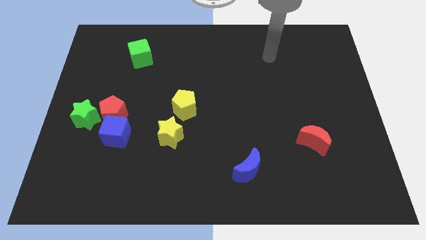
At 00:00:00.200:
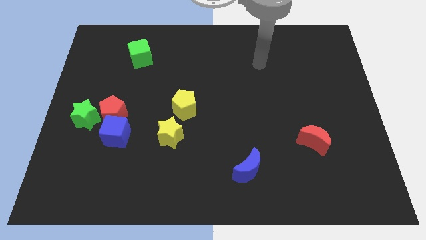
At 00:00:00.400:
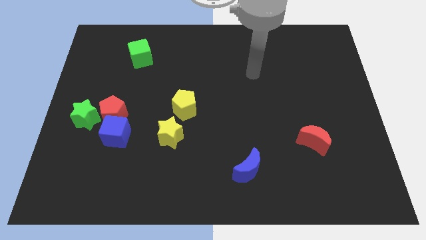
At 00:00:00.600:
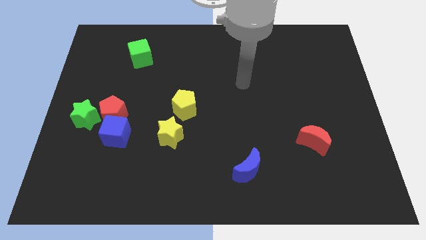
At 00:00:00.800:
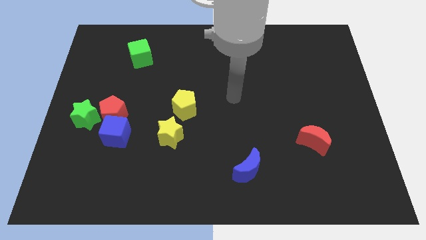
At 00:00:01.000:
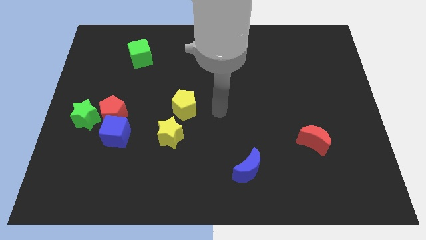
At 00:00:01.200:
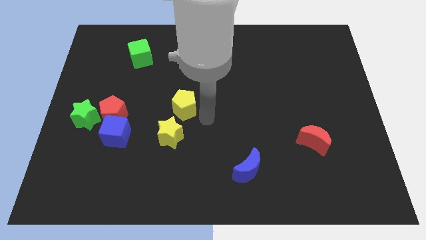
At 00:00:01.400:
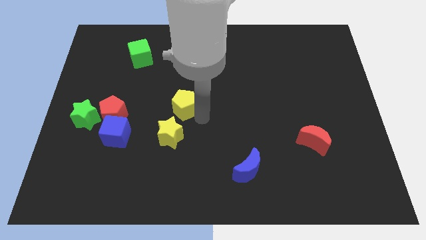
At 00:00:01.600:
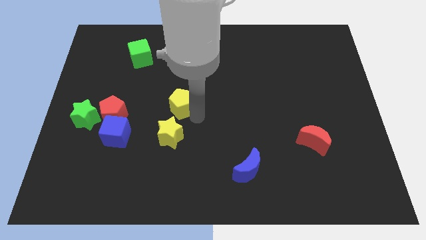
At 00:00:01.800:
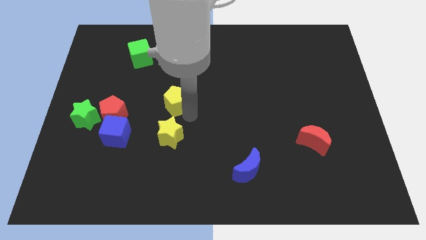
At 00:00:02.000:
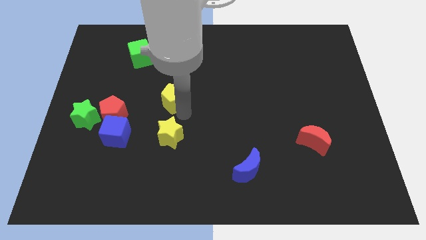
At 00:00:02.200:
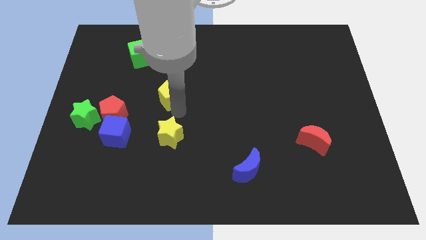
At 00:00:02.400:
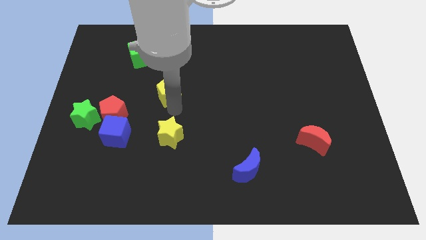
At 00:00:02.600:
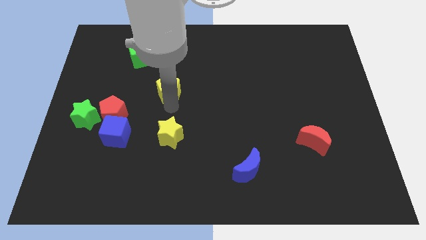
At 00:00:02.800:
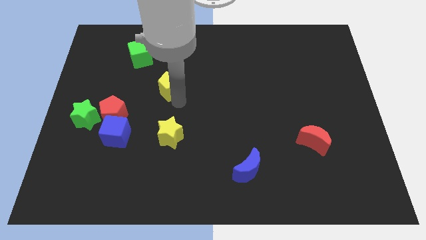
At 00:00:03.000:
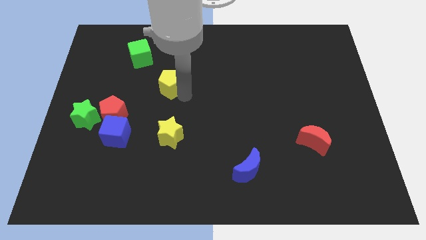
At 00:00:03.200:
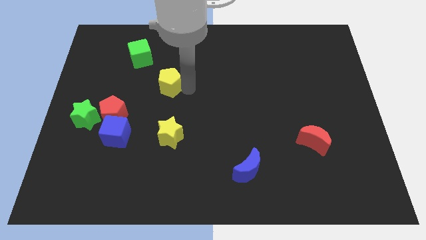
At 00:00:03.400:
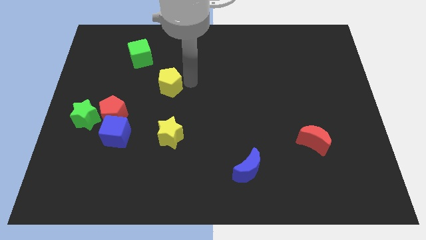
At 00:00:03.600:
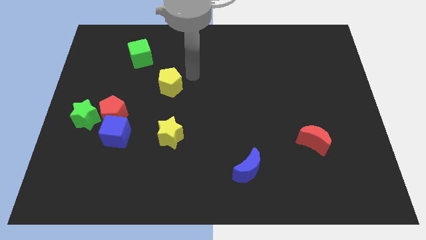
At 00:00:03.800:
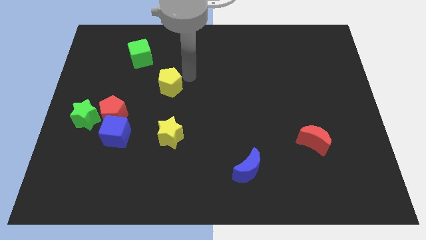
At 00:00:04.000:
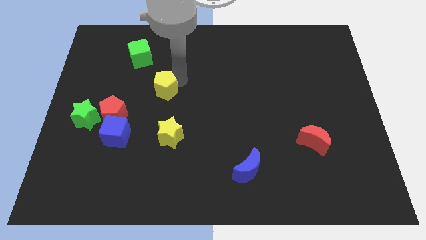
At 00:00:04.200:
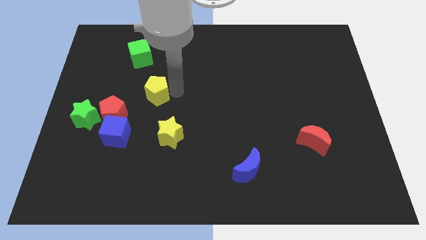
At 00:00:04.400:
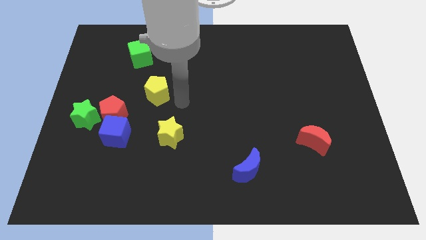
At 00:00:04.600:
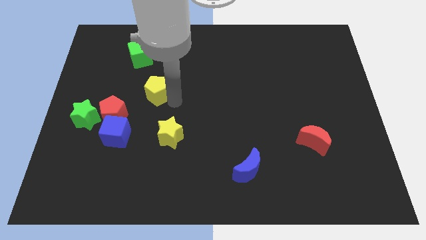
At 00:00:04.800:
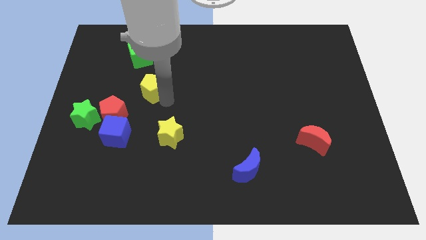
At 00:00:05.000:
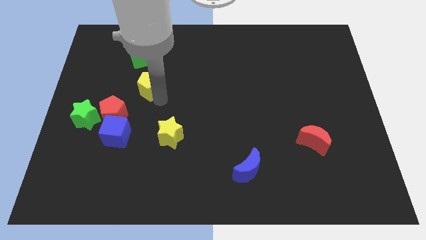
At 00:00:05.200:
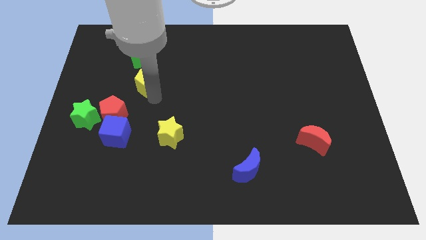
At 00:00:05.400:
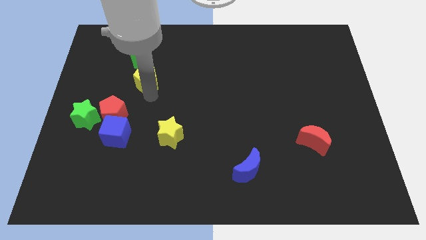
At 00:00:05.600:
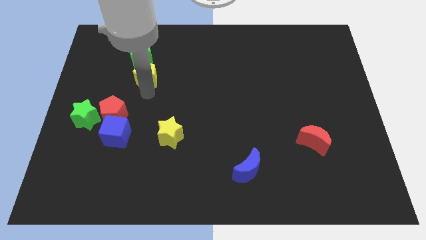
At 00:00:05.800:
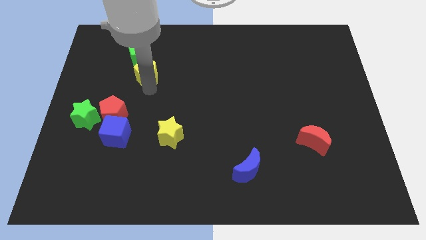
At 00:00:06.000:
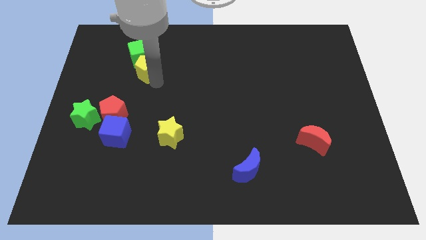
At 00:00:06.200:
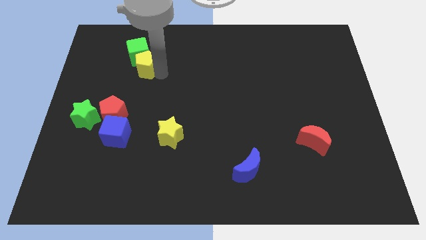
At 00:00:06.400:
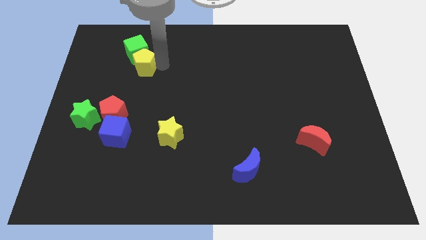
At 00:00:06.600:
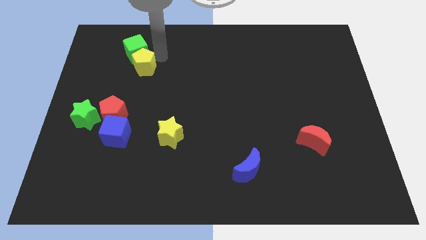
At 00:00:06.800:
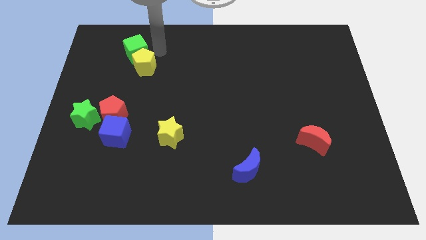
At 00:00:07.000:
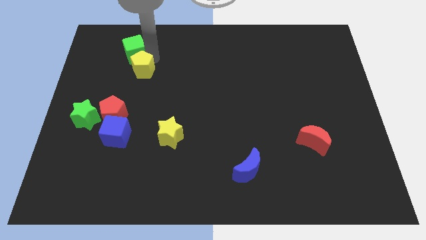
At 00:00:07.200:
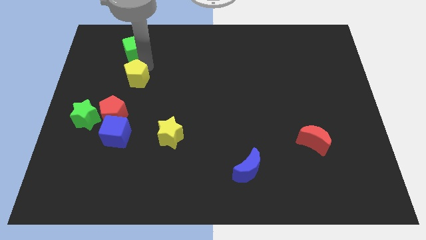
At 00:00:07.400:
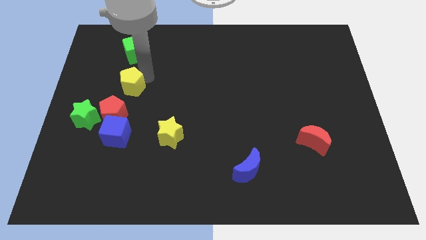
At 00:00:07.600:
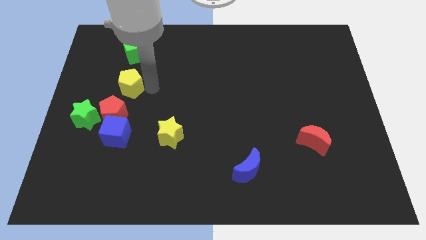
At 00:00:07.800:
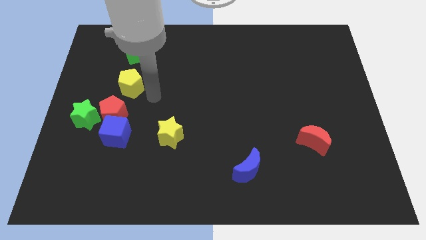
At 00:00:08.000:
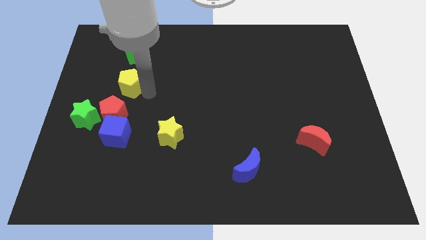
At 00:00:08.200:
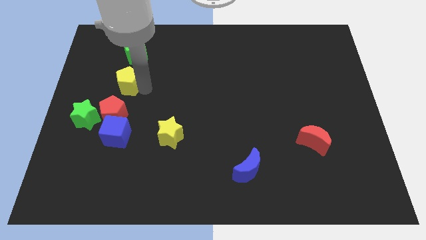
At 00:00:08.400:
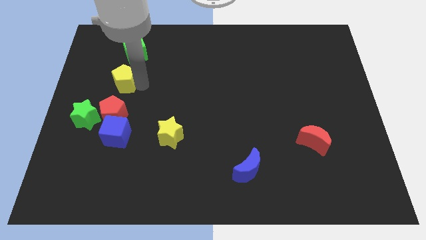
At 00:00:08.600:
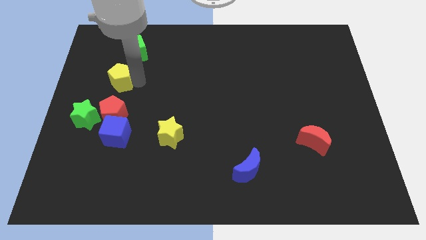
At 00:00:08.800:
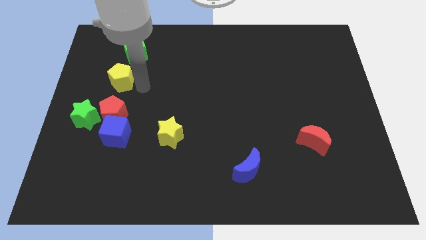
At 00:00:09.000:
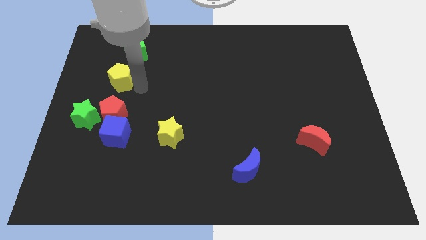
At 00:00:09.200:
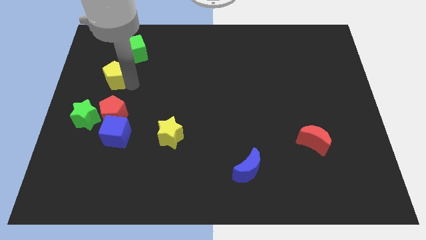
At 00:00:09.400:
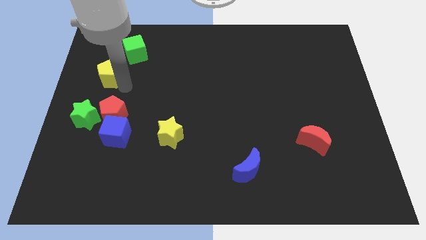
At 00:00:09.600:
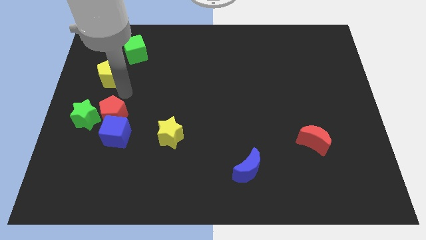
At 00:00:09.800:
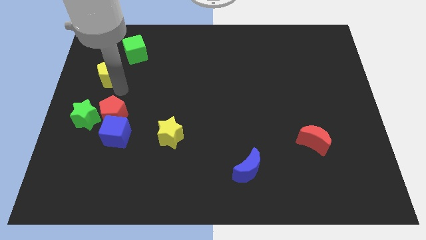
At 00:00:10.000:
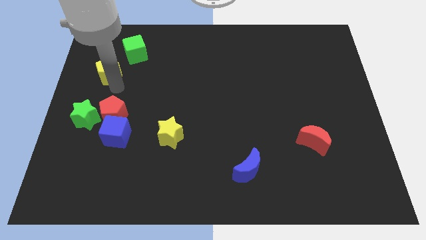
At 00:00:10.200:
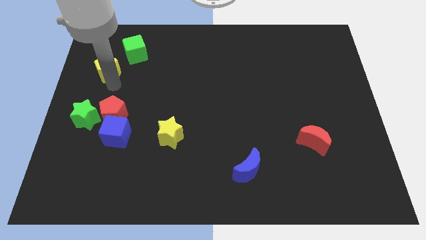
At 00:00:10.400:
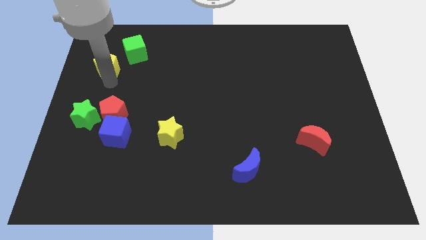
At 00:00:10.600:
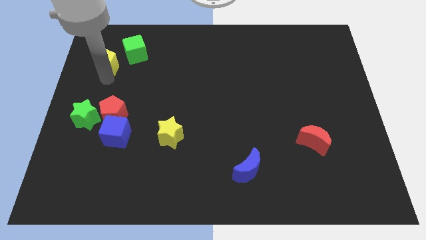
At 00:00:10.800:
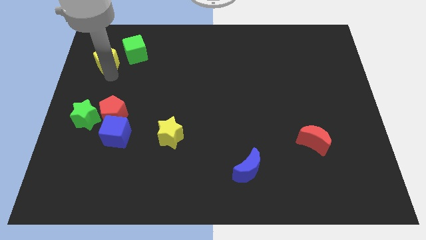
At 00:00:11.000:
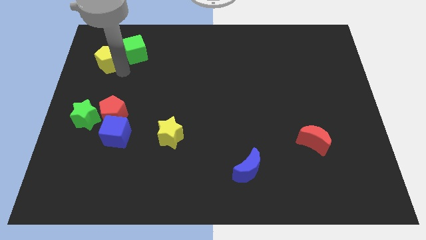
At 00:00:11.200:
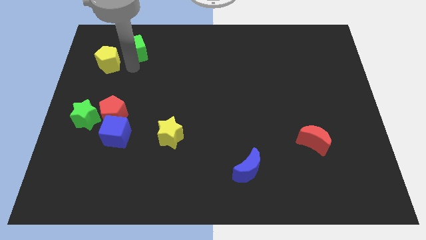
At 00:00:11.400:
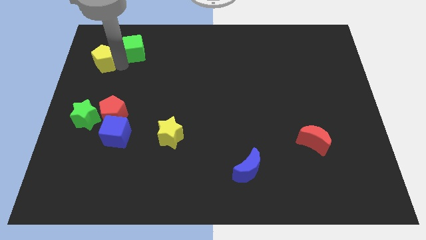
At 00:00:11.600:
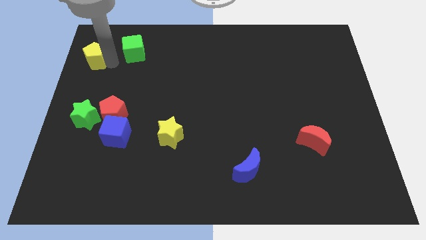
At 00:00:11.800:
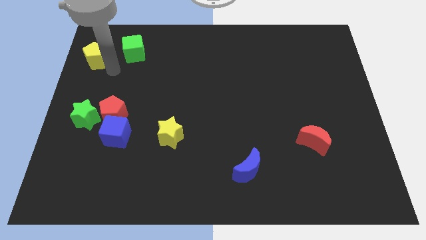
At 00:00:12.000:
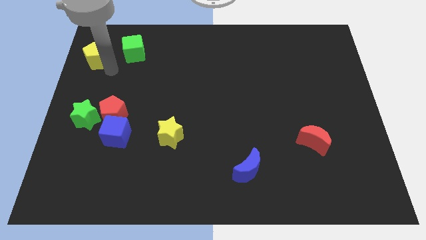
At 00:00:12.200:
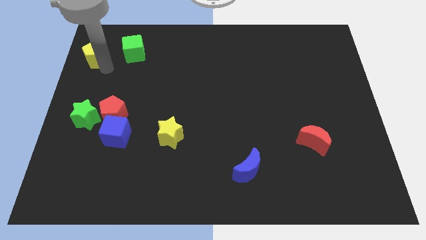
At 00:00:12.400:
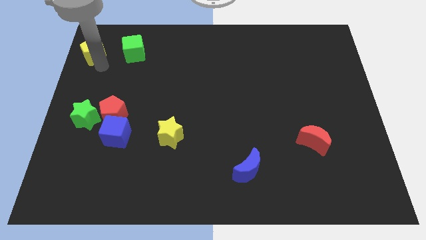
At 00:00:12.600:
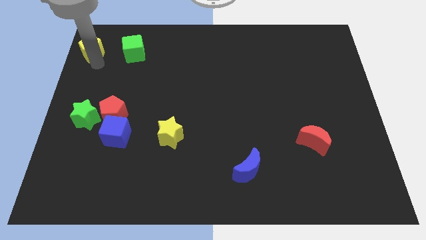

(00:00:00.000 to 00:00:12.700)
put the yellow pentagon to the upper left corner
